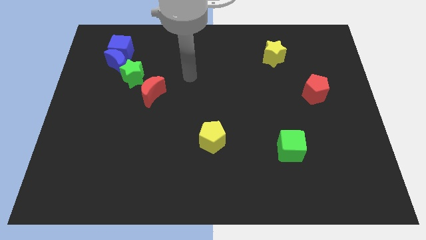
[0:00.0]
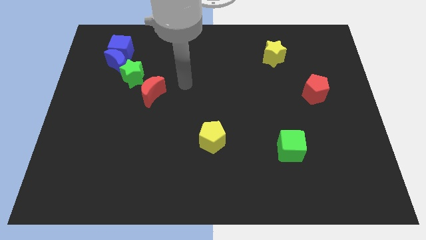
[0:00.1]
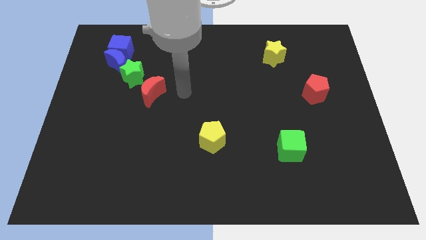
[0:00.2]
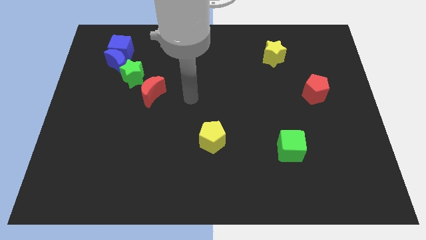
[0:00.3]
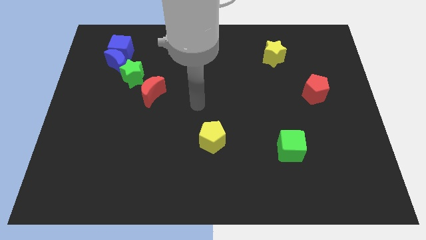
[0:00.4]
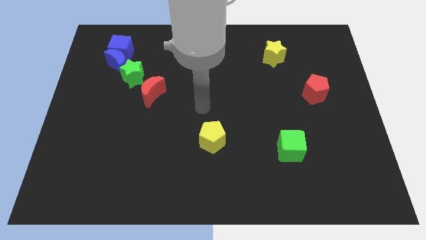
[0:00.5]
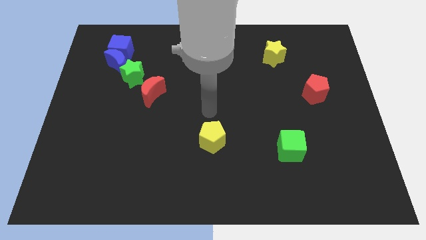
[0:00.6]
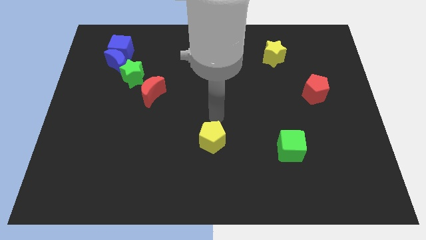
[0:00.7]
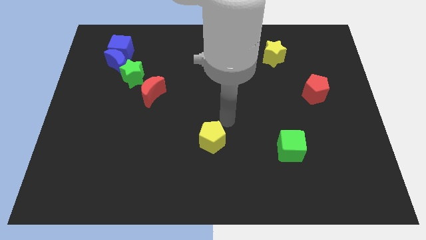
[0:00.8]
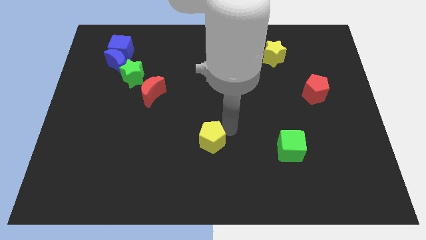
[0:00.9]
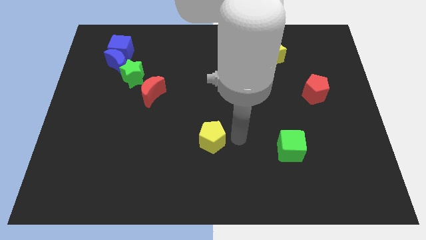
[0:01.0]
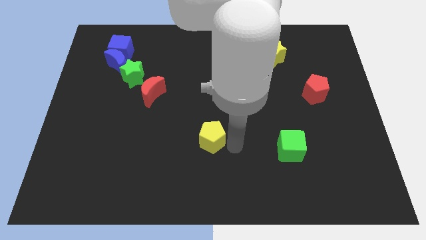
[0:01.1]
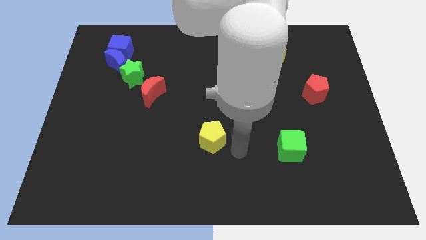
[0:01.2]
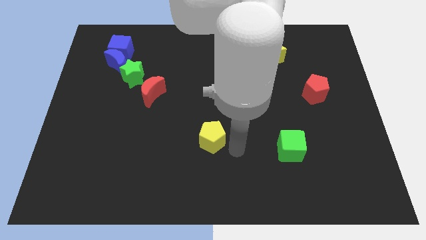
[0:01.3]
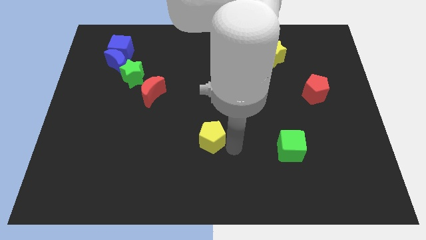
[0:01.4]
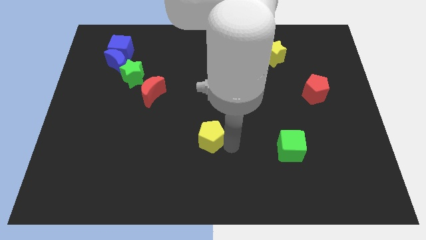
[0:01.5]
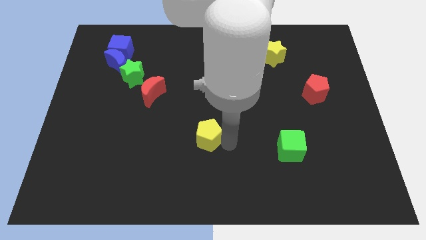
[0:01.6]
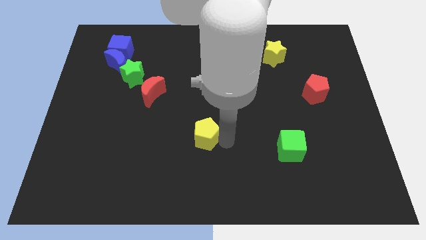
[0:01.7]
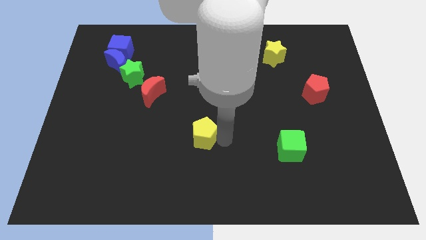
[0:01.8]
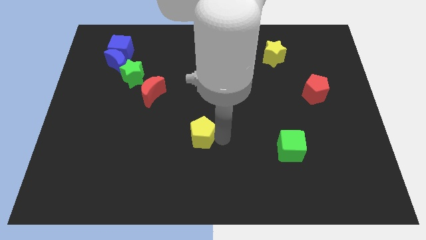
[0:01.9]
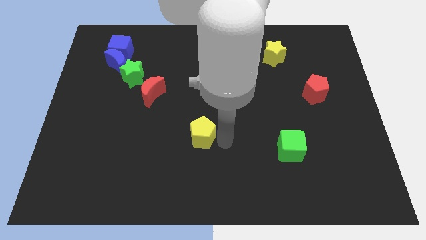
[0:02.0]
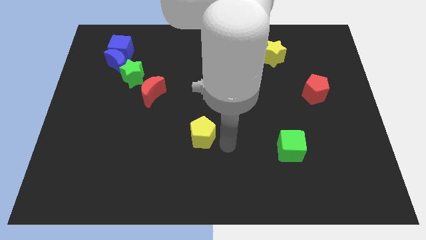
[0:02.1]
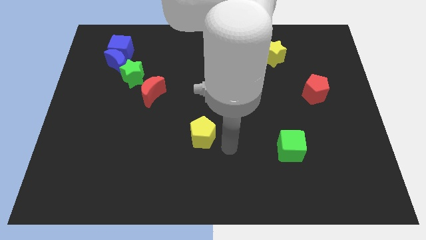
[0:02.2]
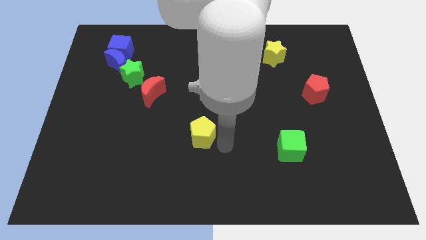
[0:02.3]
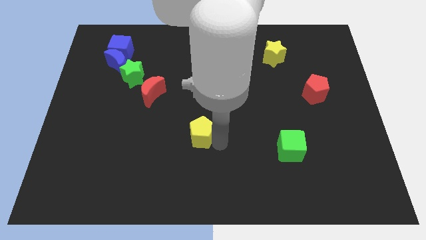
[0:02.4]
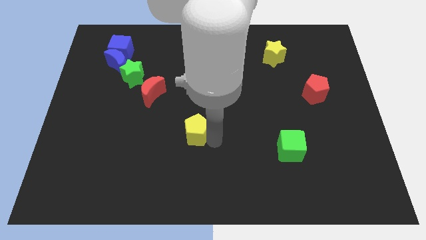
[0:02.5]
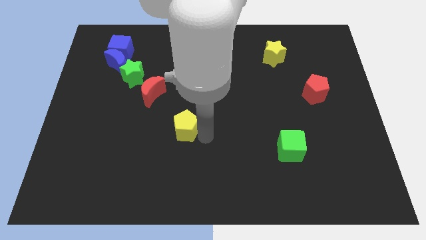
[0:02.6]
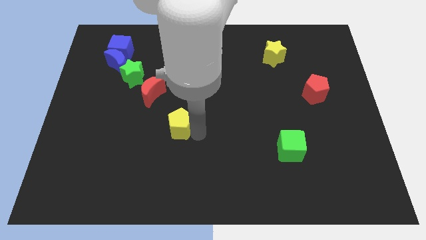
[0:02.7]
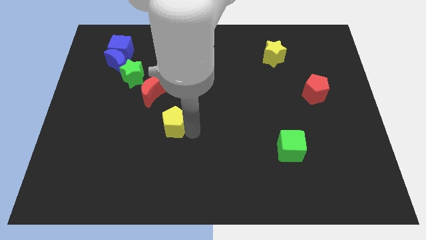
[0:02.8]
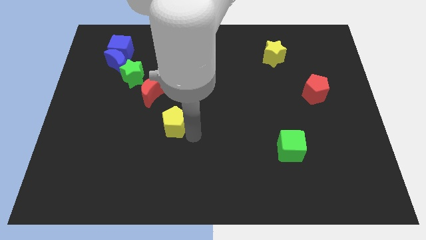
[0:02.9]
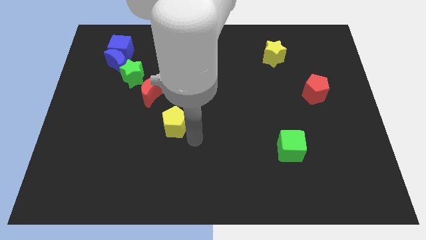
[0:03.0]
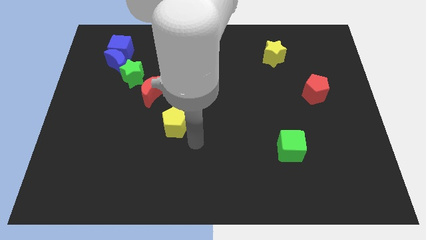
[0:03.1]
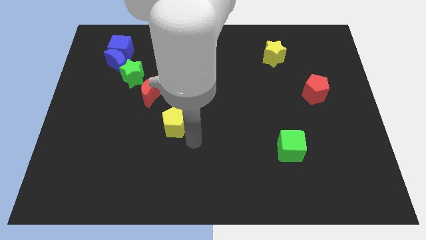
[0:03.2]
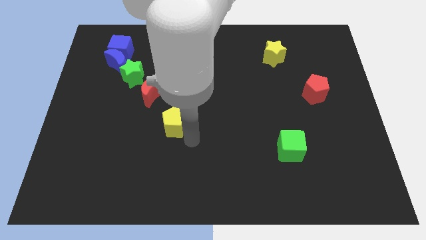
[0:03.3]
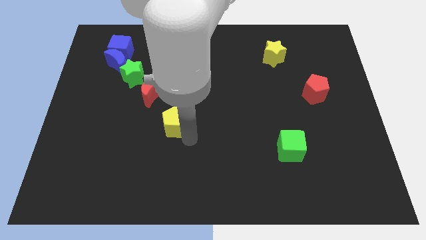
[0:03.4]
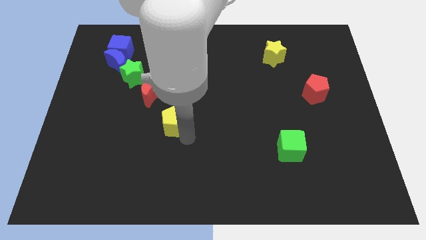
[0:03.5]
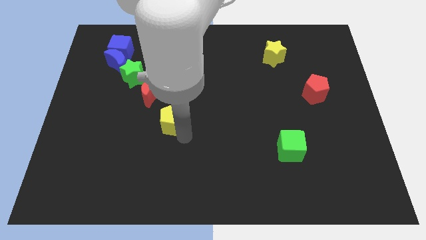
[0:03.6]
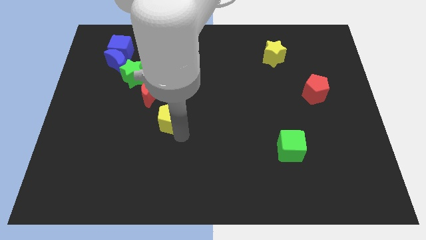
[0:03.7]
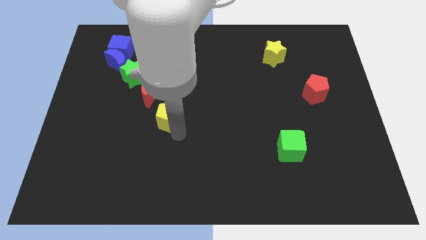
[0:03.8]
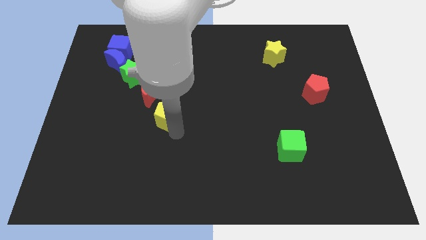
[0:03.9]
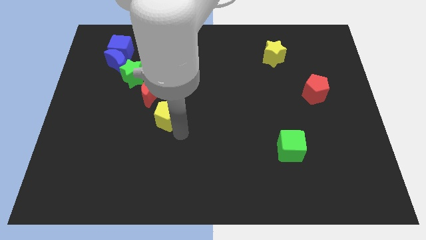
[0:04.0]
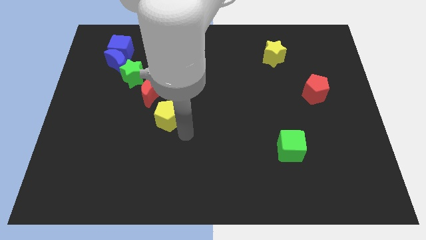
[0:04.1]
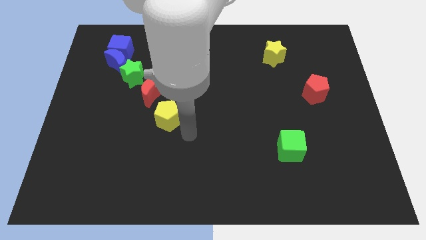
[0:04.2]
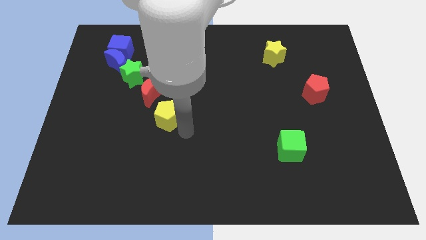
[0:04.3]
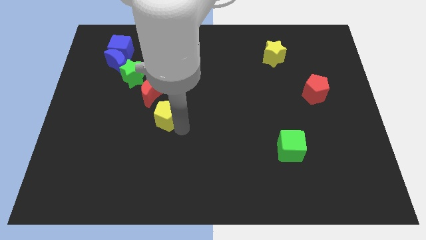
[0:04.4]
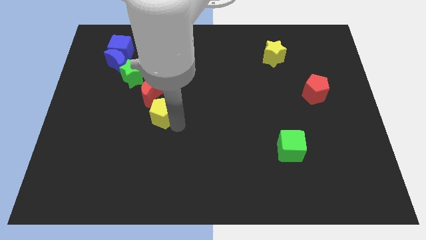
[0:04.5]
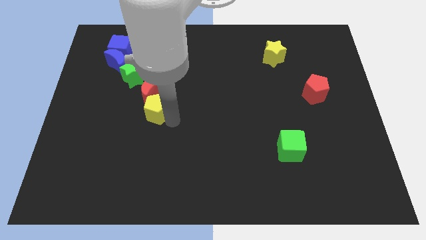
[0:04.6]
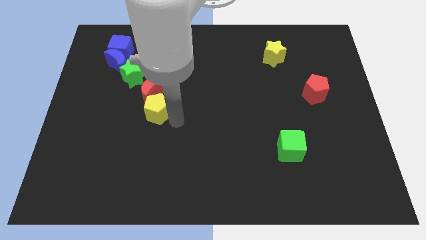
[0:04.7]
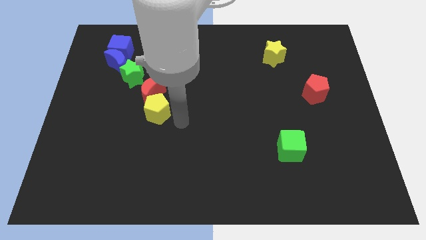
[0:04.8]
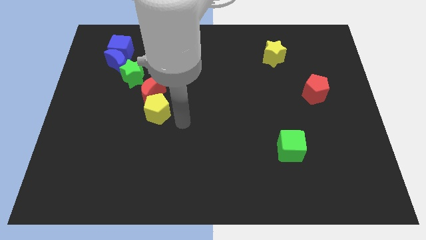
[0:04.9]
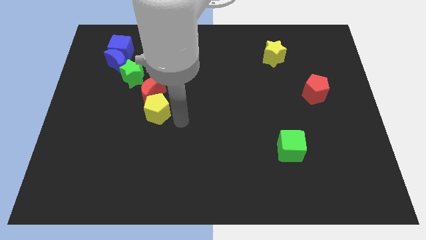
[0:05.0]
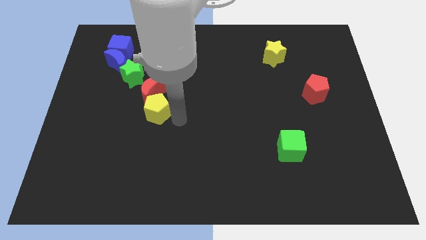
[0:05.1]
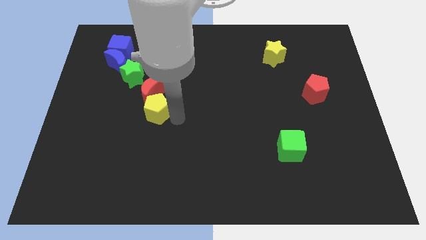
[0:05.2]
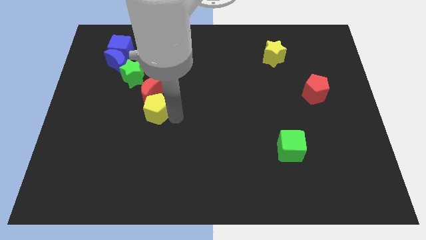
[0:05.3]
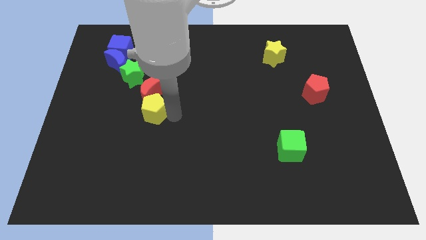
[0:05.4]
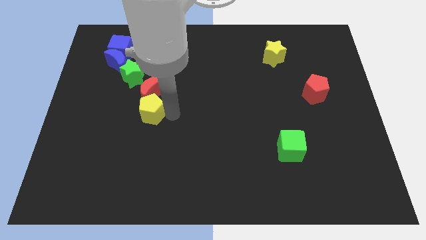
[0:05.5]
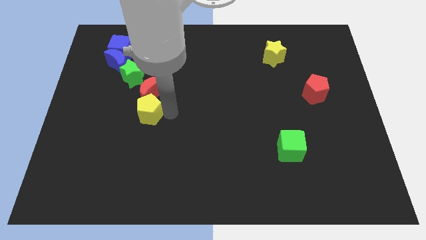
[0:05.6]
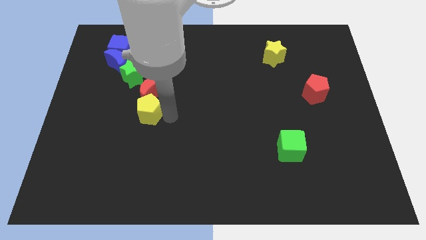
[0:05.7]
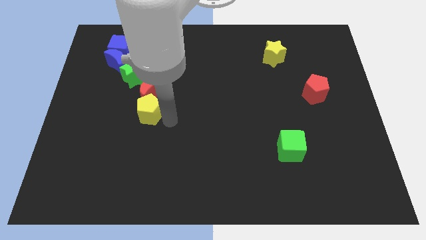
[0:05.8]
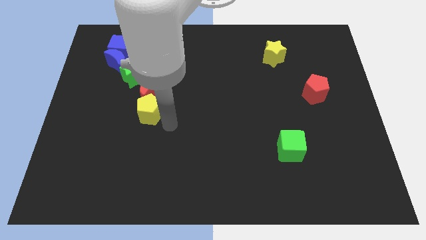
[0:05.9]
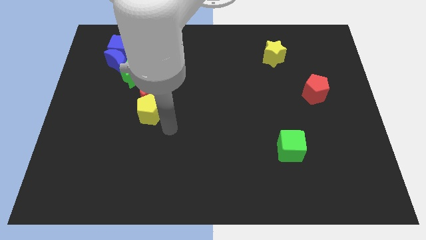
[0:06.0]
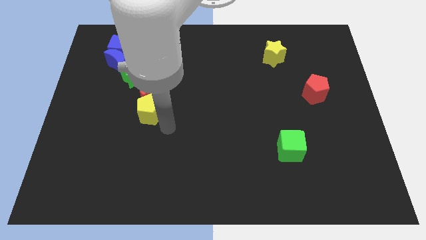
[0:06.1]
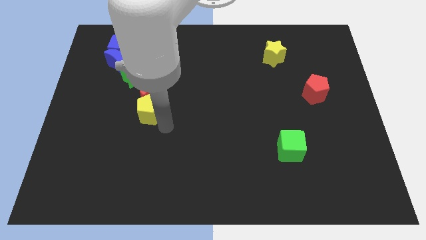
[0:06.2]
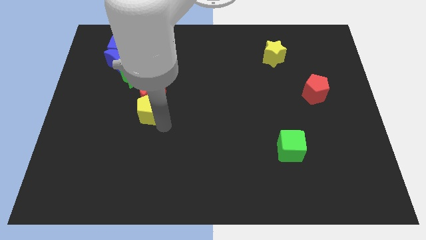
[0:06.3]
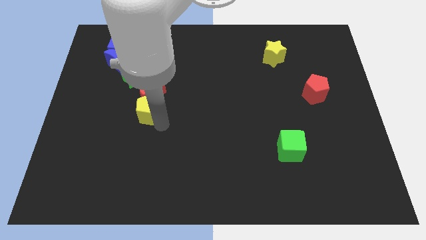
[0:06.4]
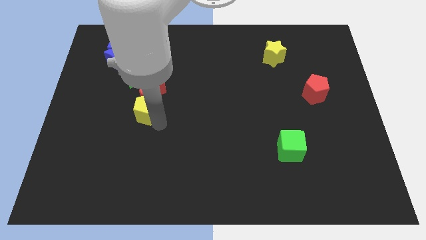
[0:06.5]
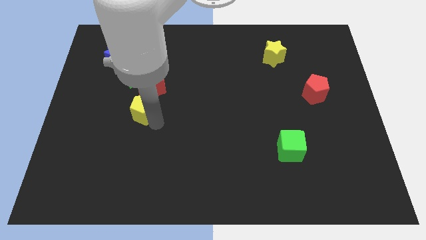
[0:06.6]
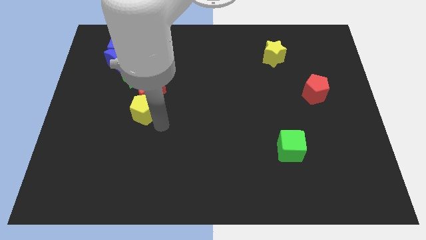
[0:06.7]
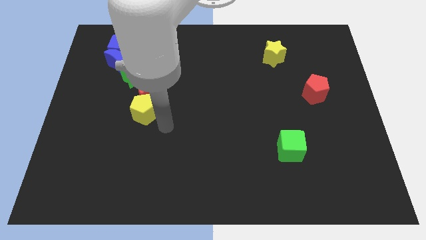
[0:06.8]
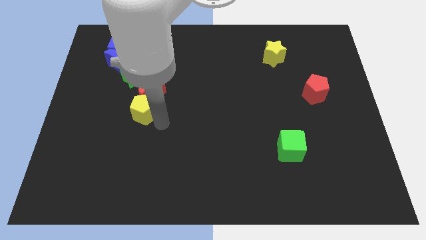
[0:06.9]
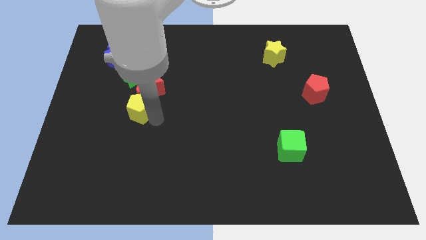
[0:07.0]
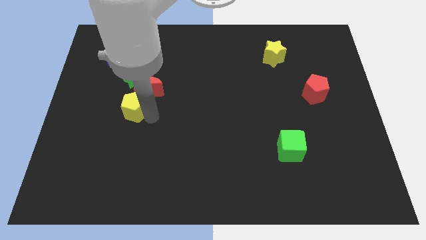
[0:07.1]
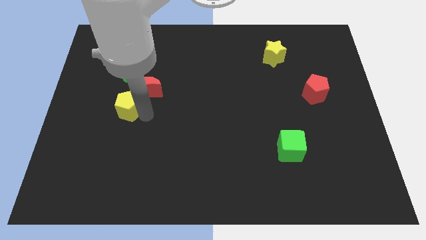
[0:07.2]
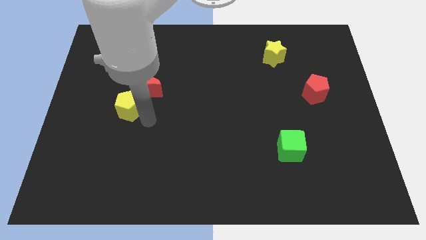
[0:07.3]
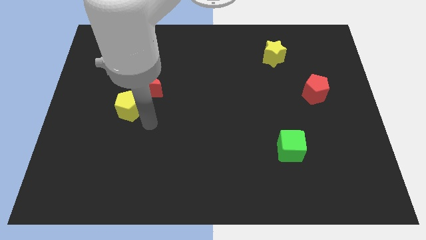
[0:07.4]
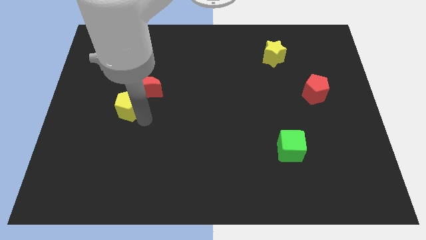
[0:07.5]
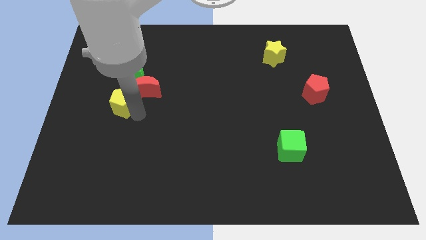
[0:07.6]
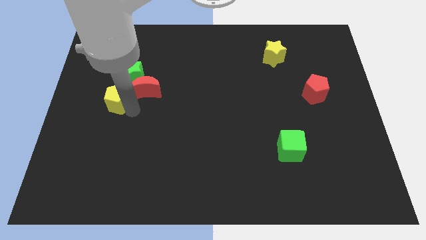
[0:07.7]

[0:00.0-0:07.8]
push the yellow pentagon to the bottom left side of the green star
